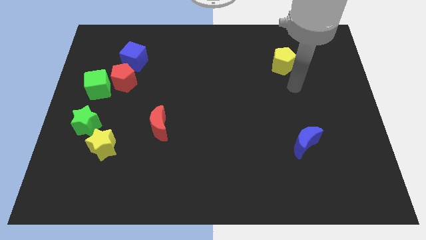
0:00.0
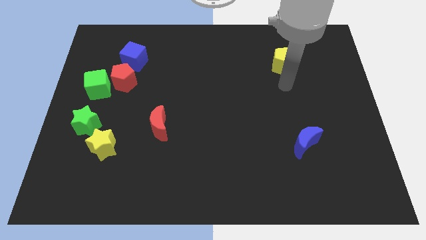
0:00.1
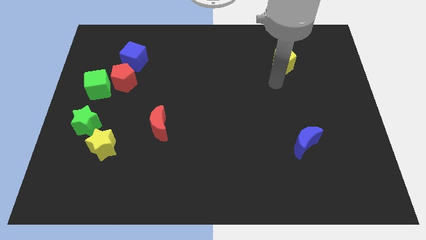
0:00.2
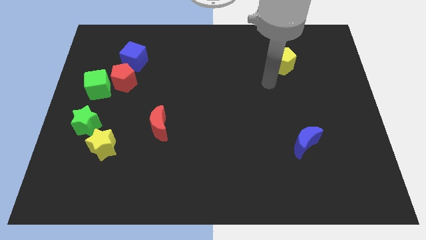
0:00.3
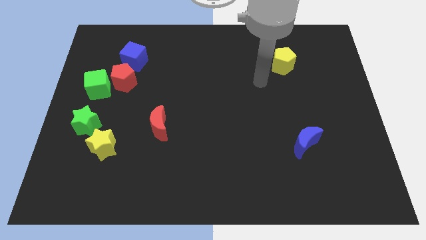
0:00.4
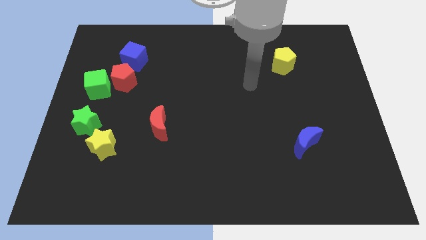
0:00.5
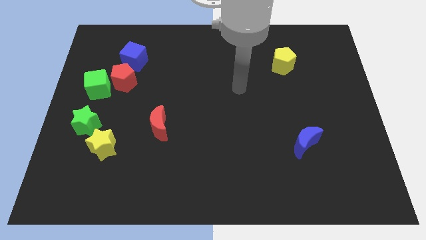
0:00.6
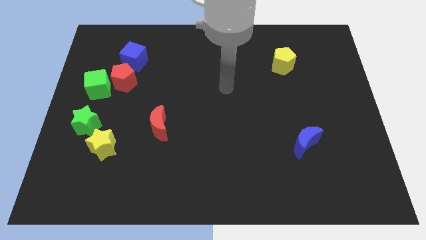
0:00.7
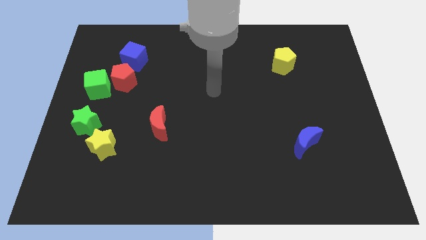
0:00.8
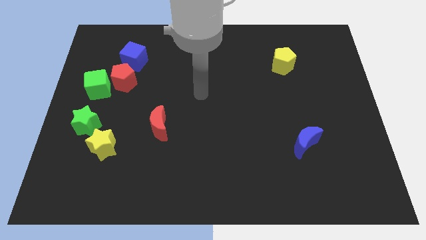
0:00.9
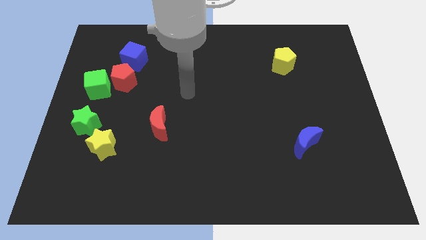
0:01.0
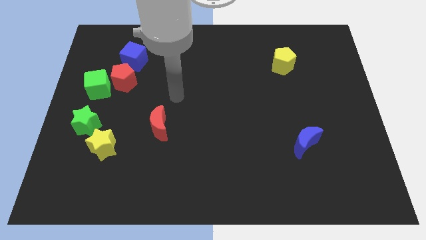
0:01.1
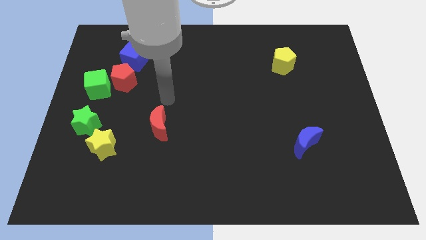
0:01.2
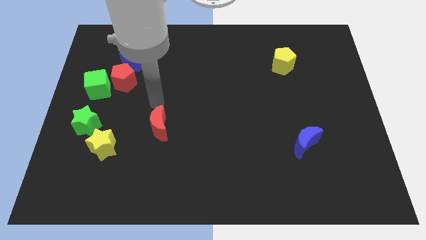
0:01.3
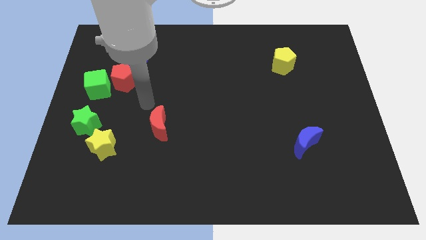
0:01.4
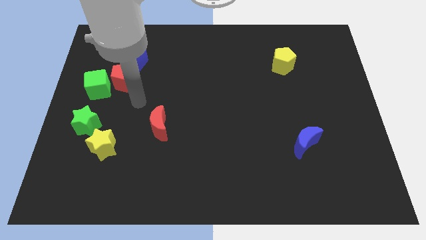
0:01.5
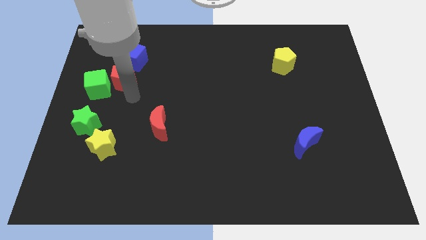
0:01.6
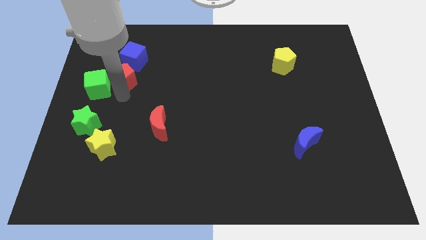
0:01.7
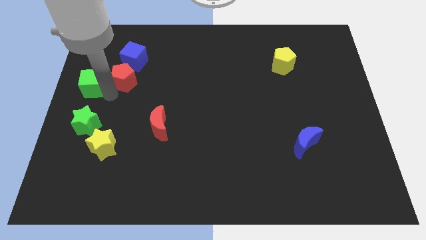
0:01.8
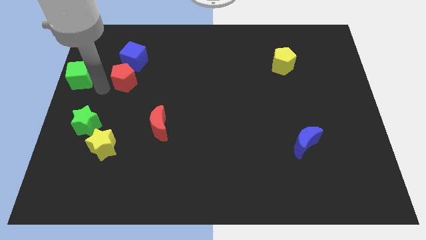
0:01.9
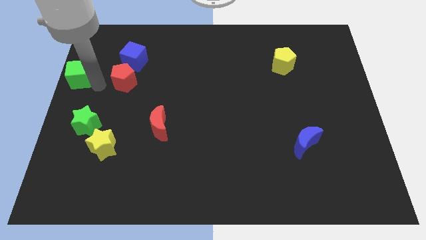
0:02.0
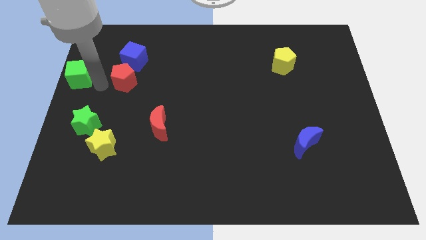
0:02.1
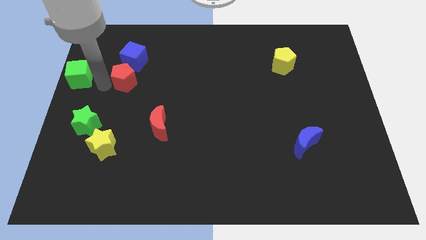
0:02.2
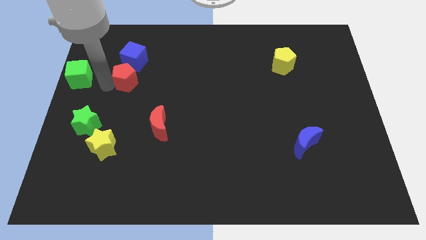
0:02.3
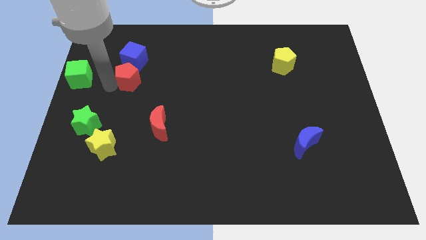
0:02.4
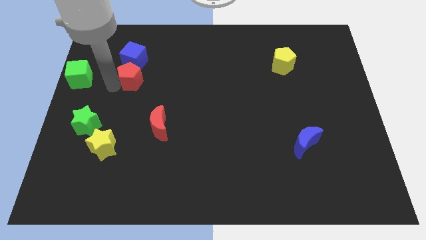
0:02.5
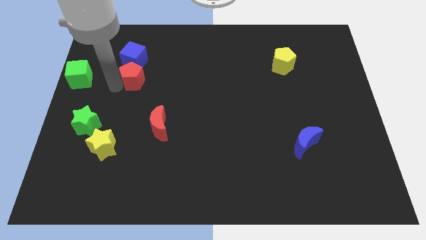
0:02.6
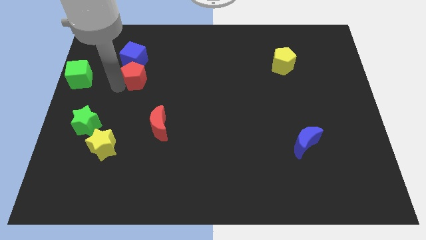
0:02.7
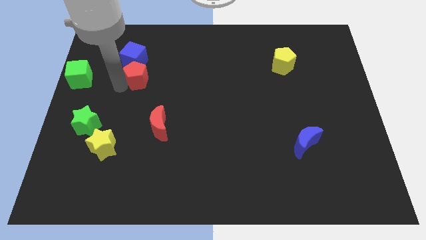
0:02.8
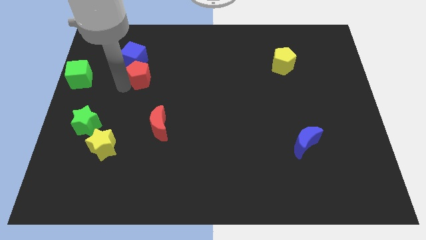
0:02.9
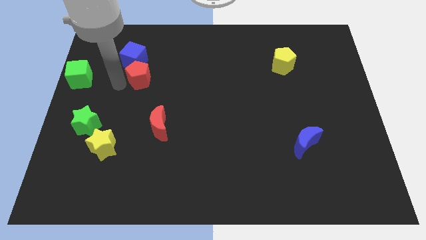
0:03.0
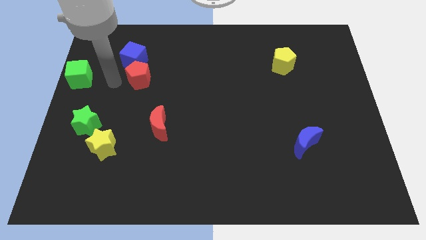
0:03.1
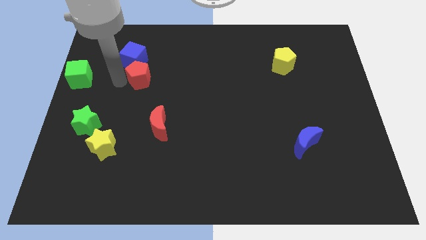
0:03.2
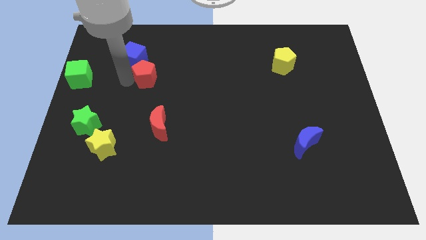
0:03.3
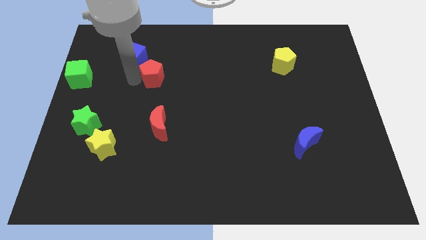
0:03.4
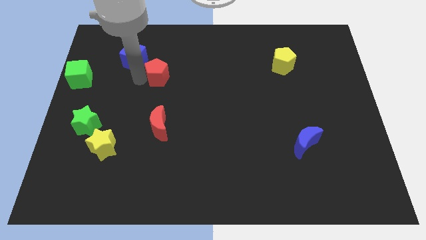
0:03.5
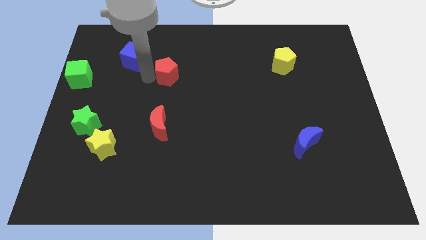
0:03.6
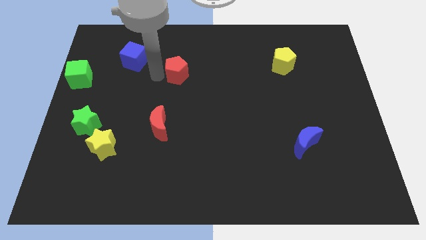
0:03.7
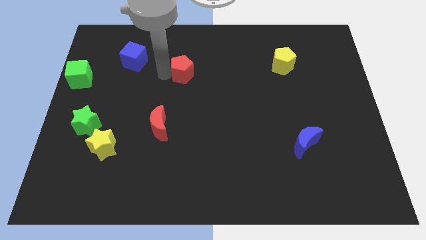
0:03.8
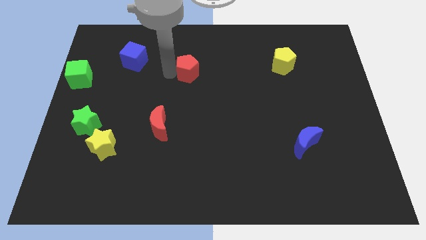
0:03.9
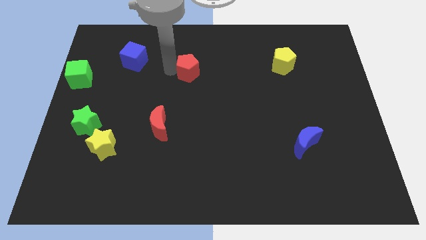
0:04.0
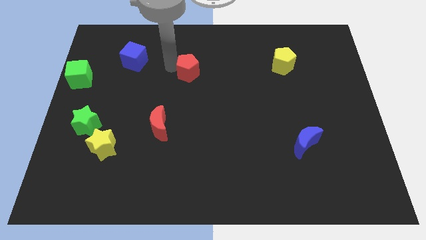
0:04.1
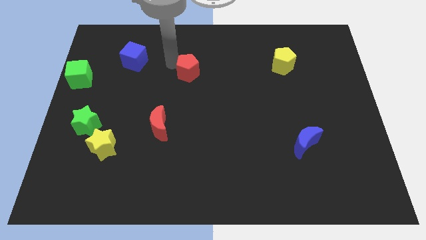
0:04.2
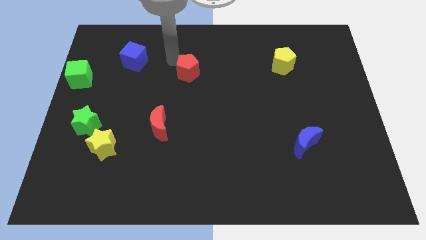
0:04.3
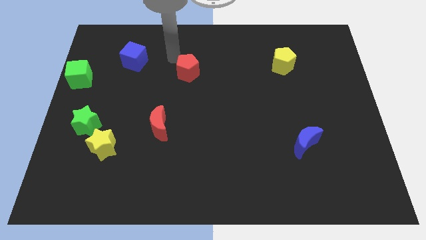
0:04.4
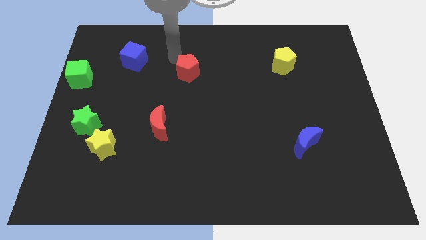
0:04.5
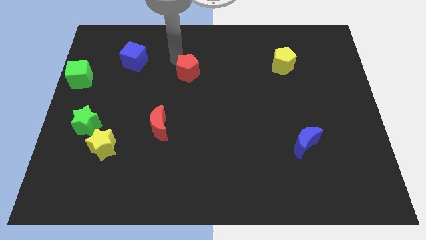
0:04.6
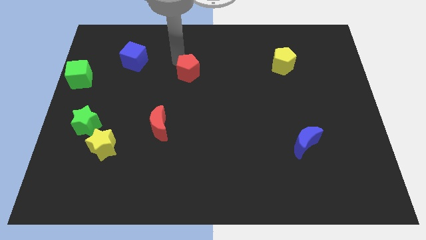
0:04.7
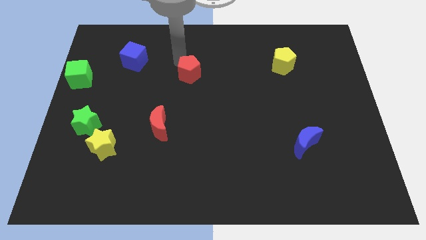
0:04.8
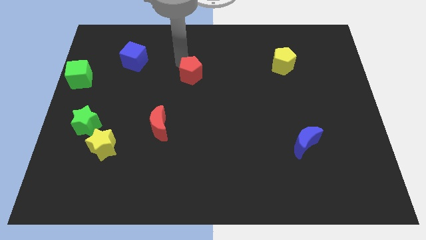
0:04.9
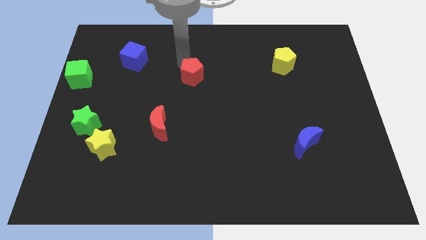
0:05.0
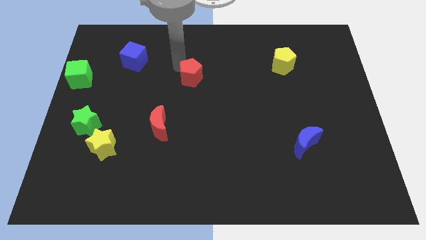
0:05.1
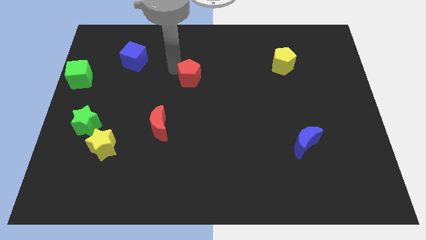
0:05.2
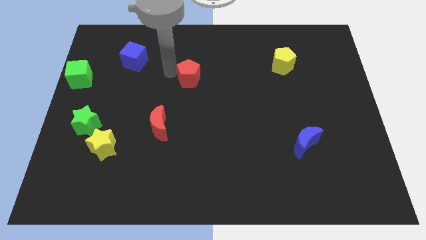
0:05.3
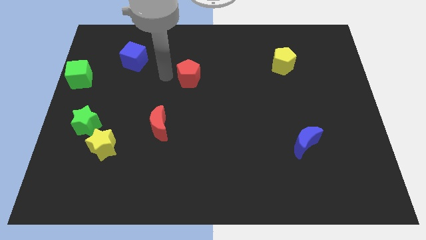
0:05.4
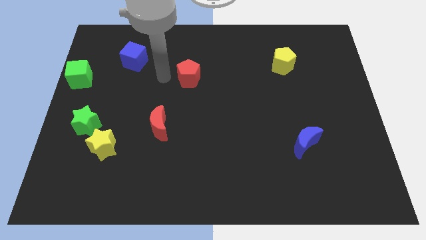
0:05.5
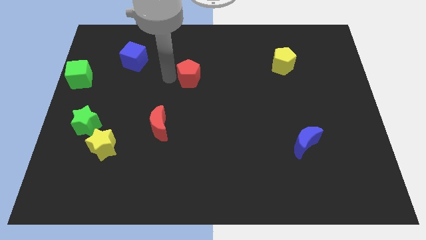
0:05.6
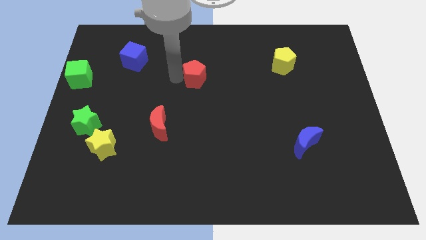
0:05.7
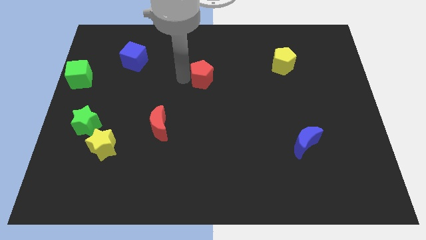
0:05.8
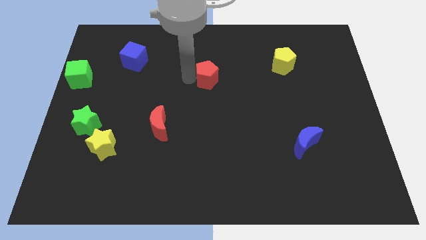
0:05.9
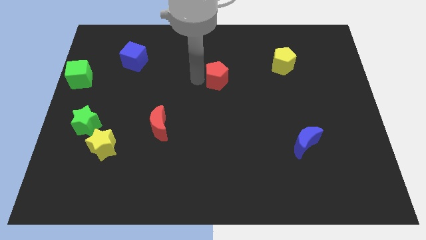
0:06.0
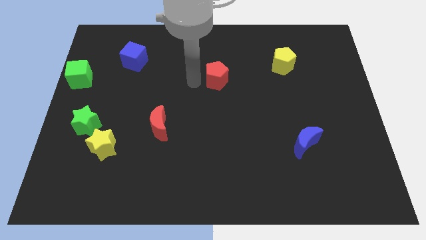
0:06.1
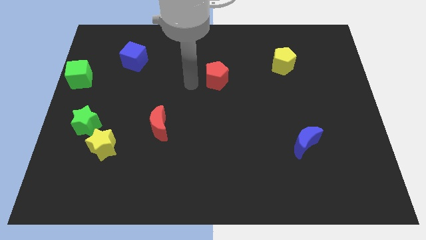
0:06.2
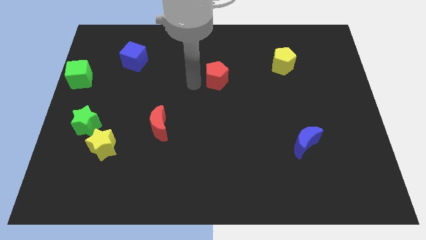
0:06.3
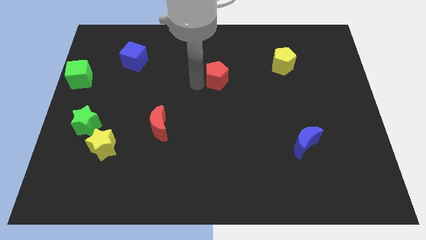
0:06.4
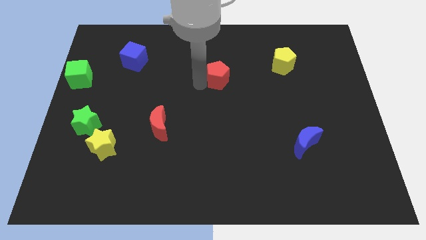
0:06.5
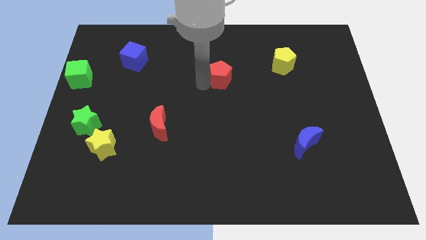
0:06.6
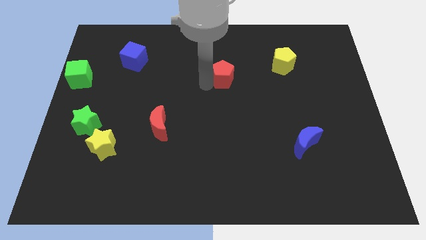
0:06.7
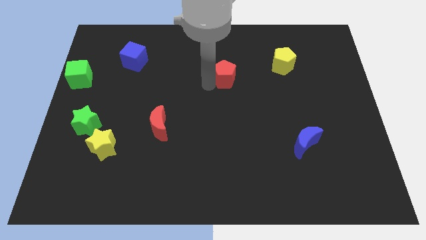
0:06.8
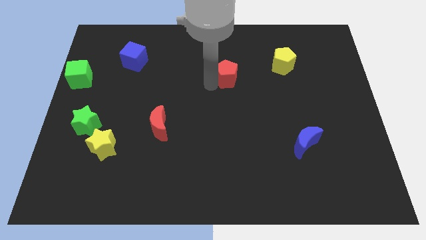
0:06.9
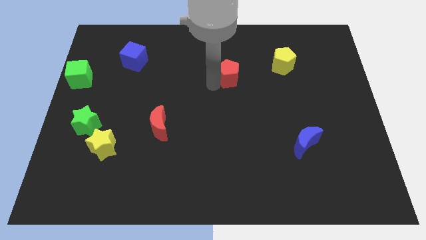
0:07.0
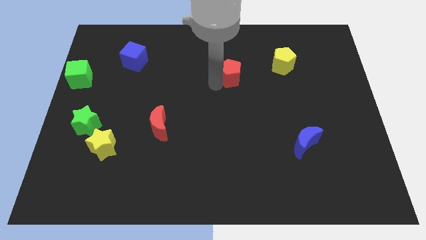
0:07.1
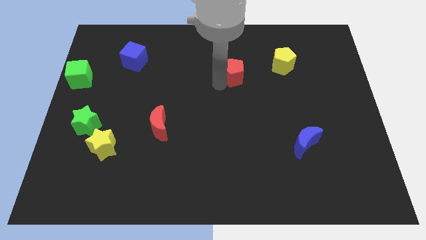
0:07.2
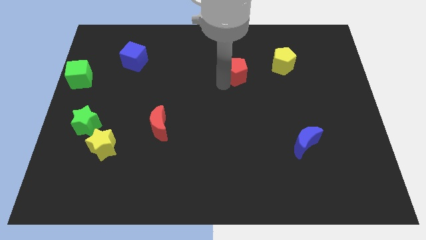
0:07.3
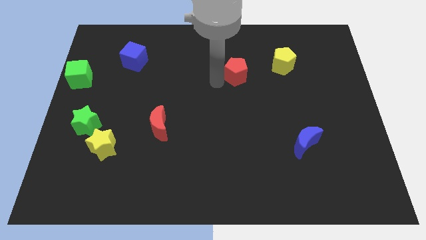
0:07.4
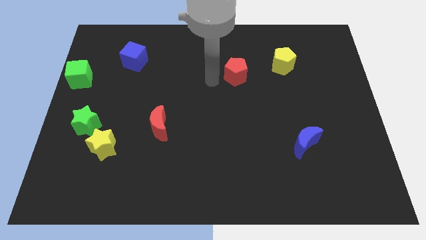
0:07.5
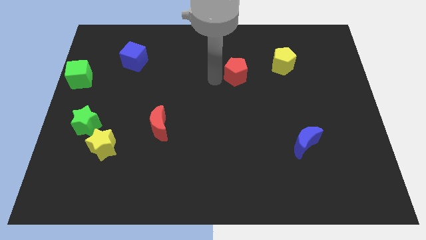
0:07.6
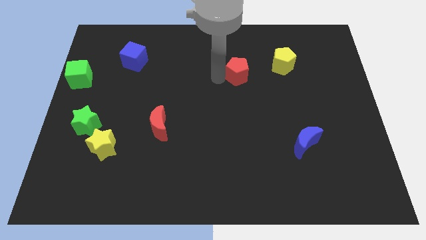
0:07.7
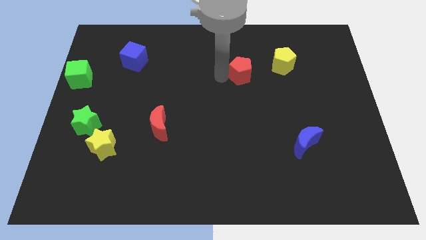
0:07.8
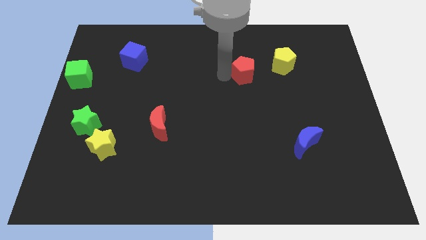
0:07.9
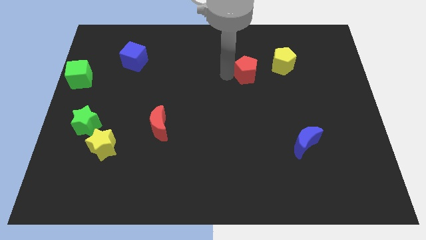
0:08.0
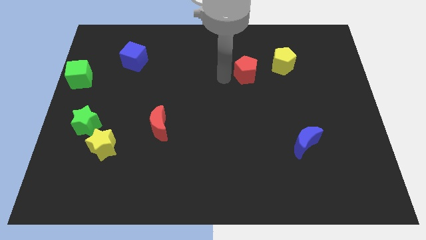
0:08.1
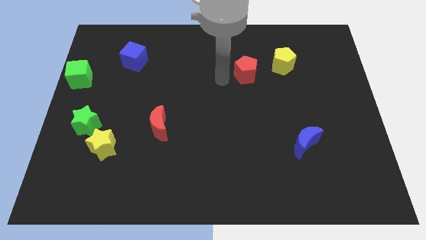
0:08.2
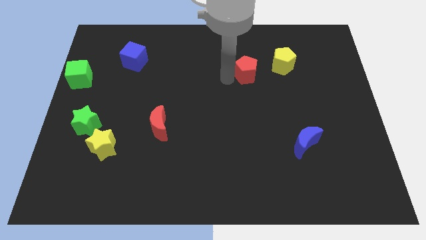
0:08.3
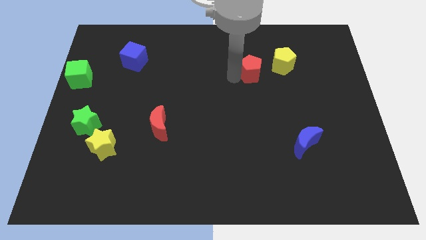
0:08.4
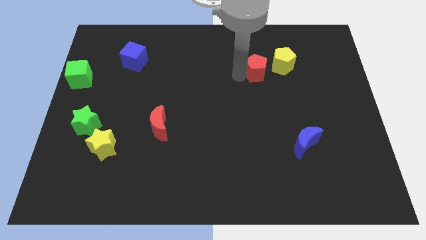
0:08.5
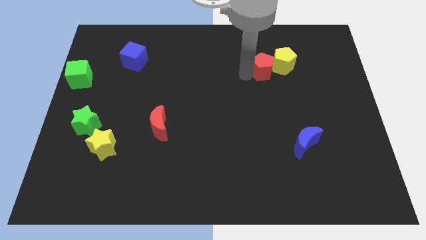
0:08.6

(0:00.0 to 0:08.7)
slide the red pentagon towards the yellow pentagon
